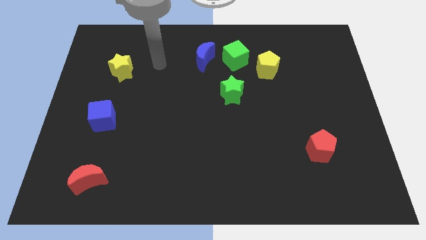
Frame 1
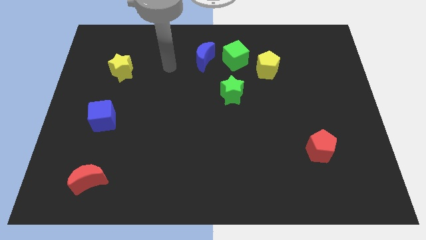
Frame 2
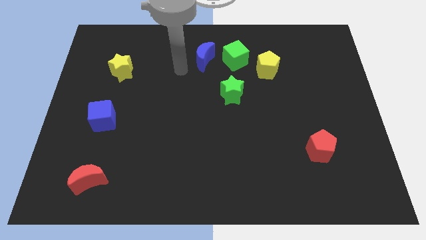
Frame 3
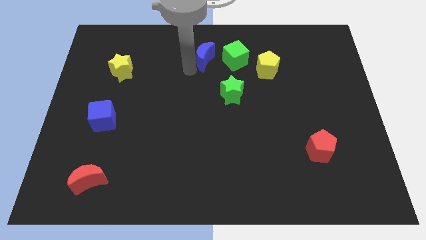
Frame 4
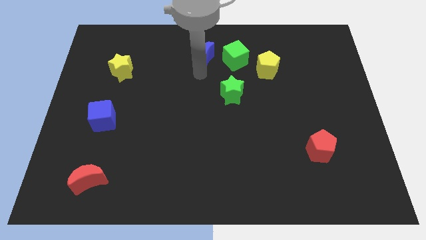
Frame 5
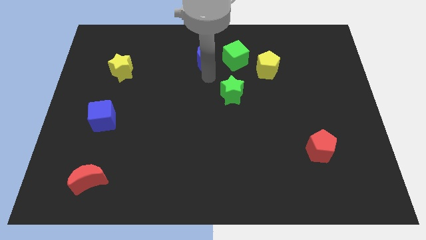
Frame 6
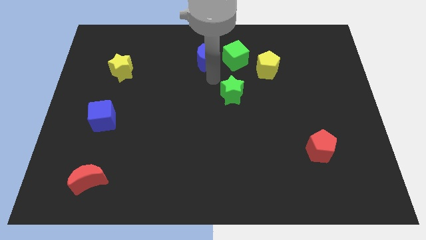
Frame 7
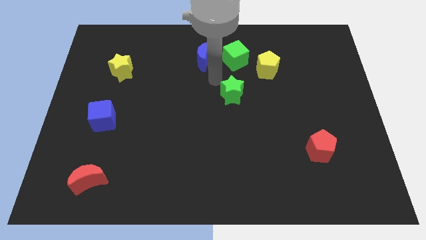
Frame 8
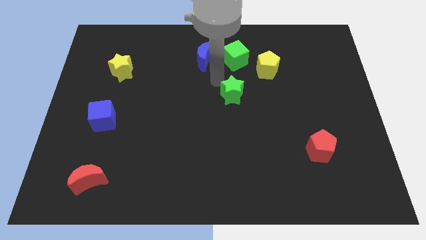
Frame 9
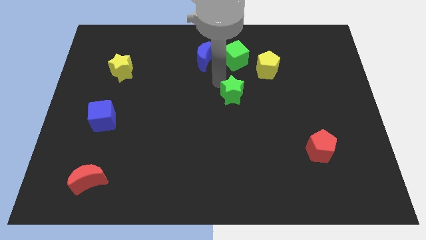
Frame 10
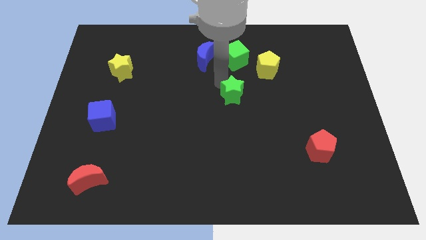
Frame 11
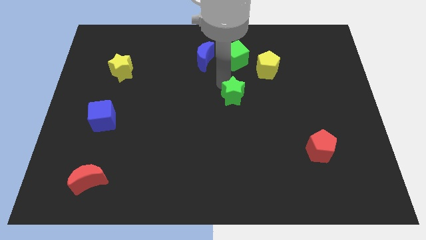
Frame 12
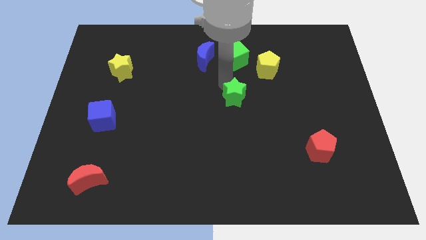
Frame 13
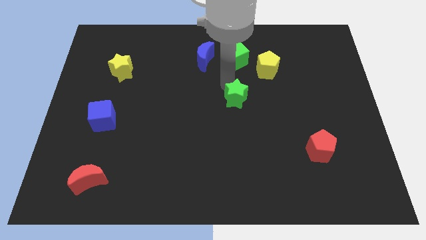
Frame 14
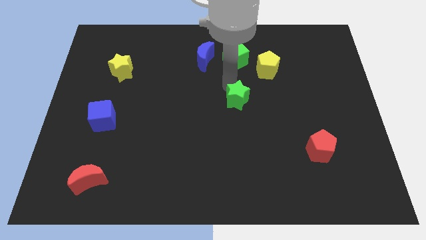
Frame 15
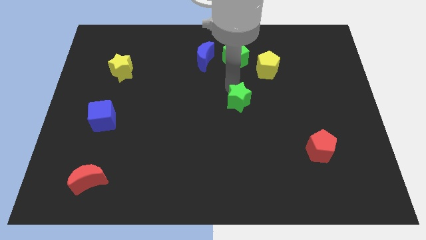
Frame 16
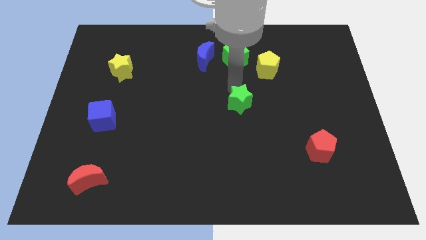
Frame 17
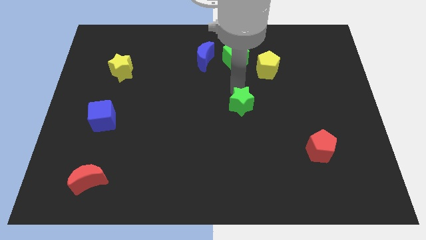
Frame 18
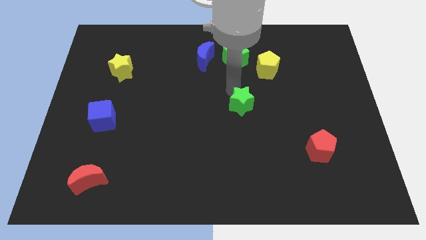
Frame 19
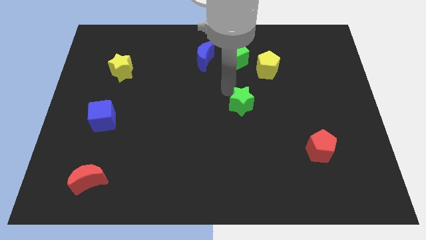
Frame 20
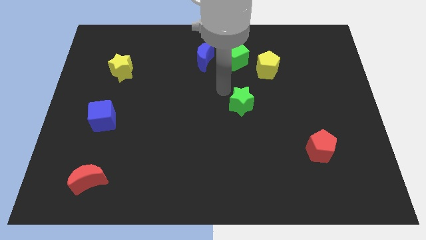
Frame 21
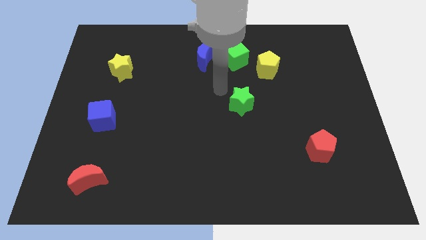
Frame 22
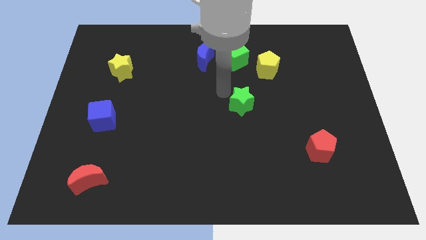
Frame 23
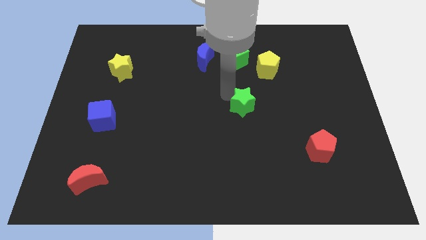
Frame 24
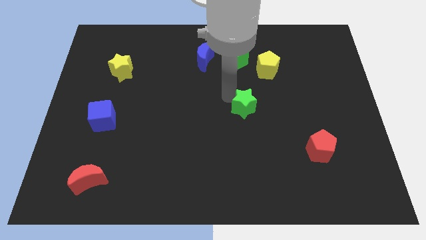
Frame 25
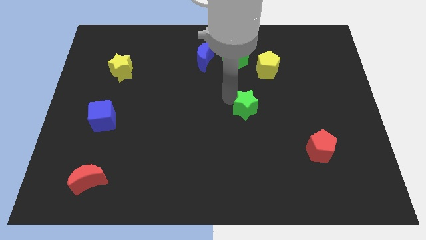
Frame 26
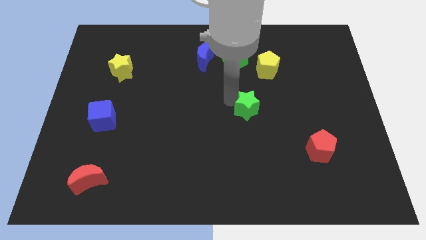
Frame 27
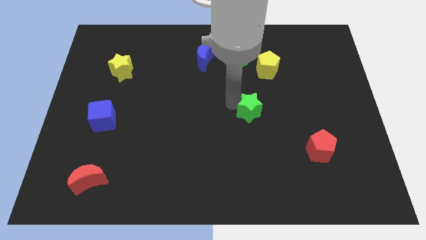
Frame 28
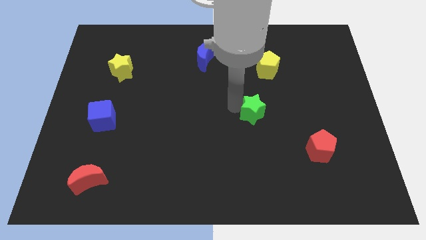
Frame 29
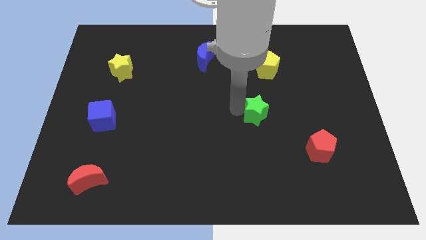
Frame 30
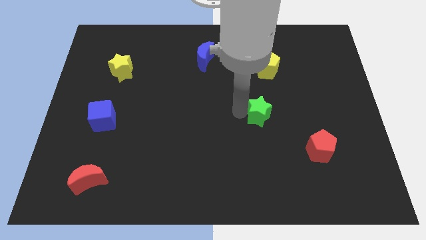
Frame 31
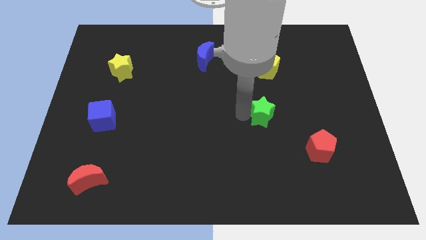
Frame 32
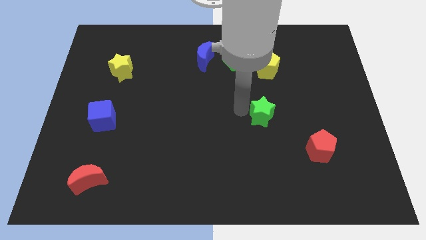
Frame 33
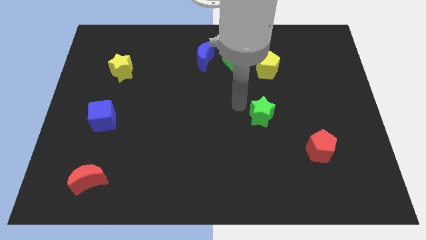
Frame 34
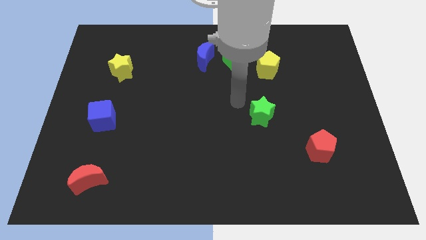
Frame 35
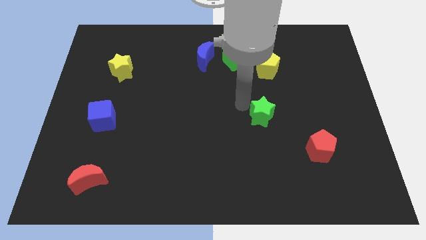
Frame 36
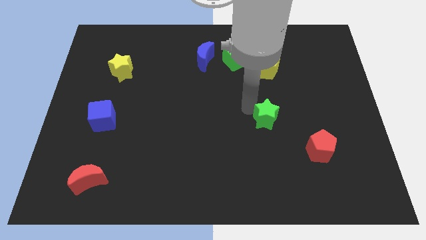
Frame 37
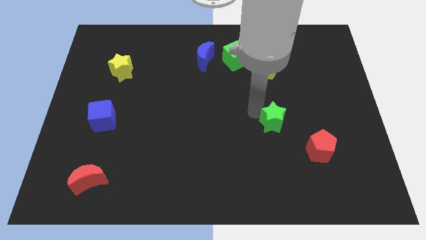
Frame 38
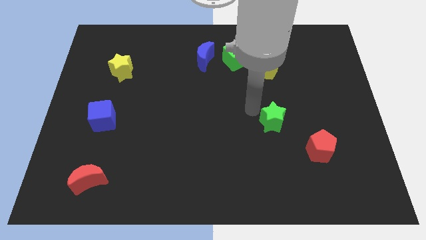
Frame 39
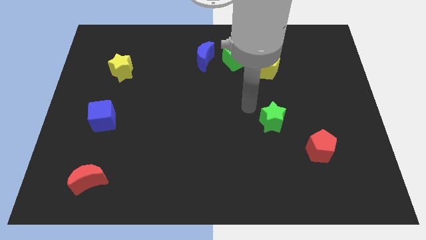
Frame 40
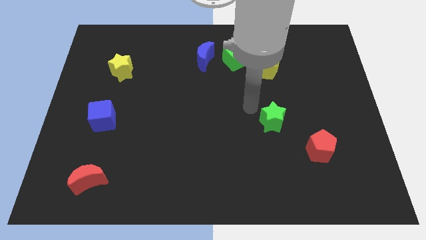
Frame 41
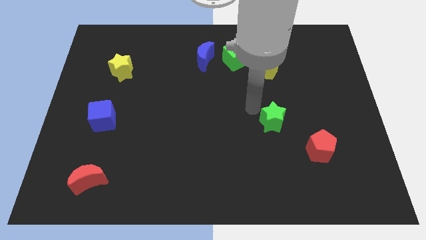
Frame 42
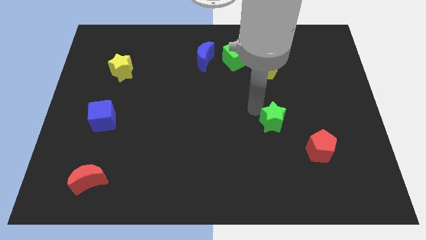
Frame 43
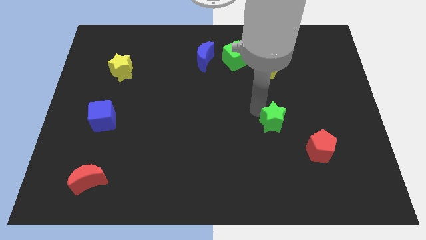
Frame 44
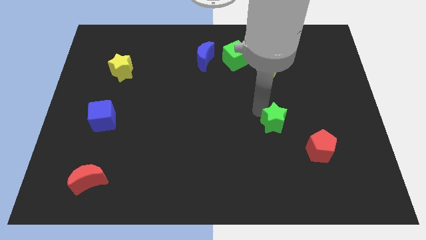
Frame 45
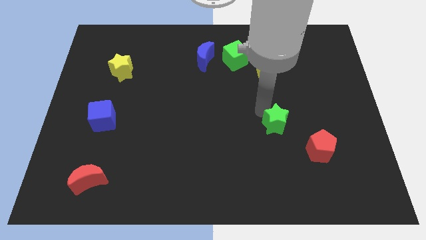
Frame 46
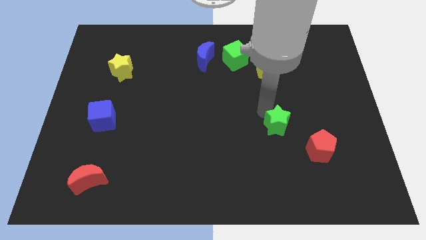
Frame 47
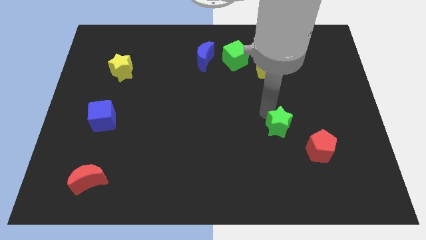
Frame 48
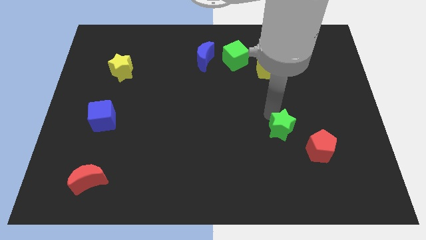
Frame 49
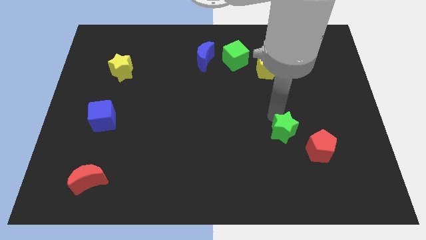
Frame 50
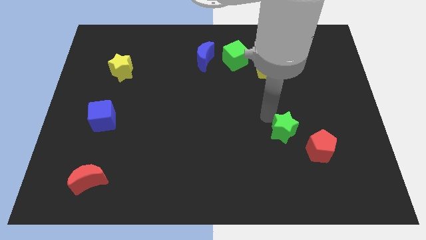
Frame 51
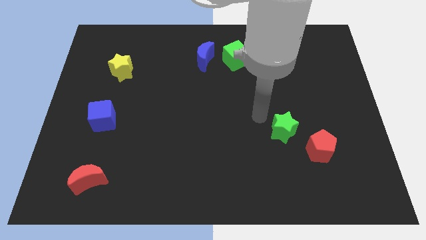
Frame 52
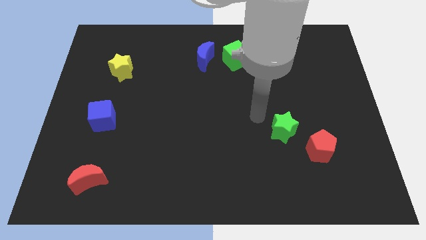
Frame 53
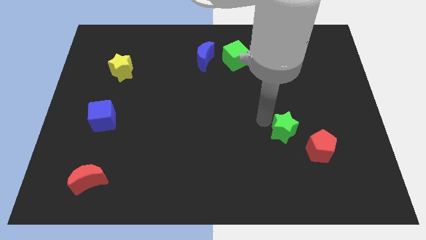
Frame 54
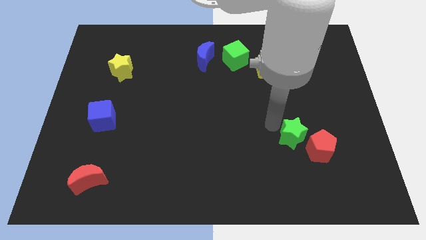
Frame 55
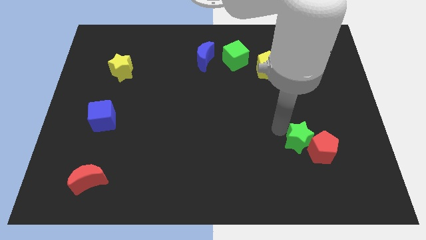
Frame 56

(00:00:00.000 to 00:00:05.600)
move the green star next to the red pentagon

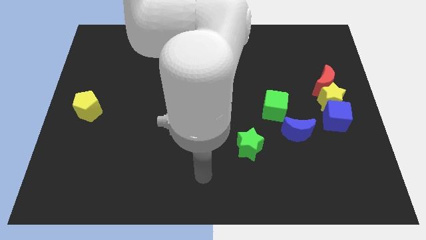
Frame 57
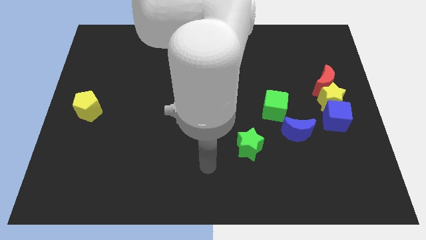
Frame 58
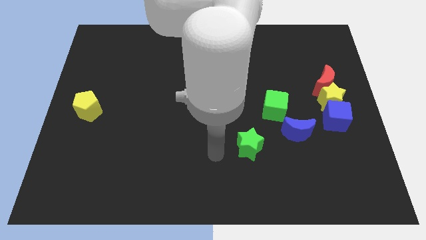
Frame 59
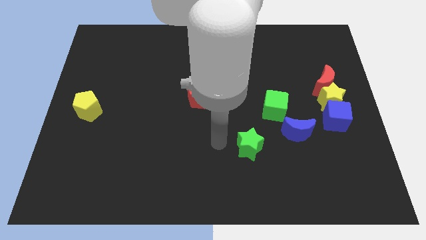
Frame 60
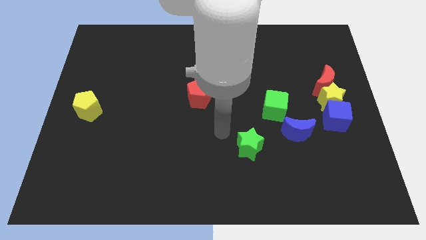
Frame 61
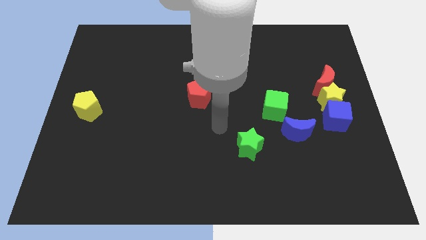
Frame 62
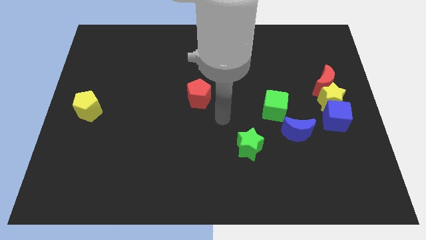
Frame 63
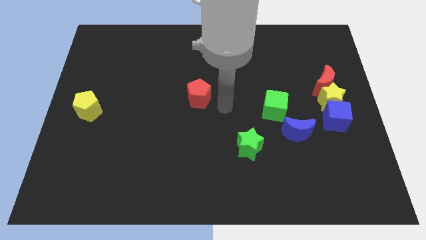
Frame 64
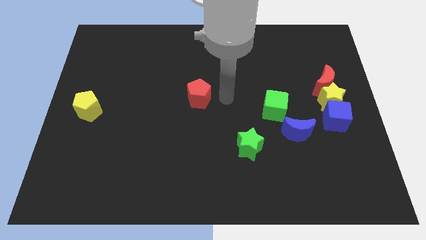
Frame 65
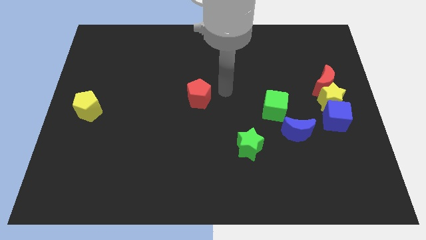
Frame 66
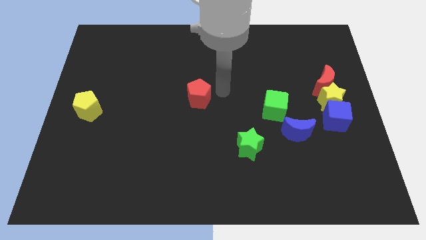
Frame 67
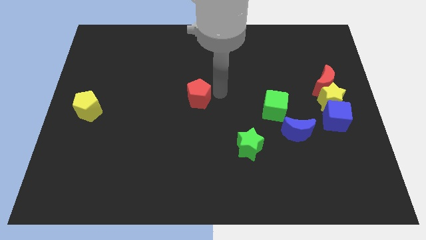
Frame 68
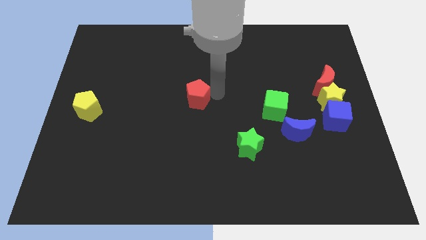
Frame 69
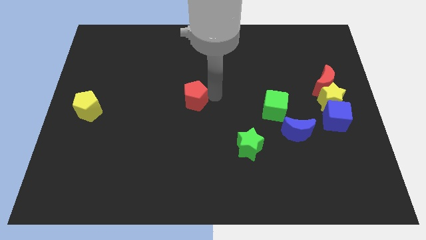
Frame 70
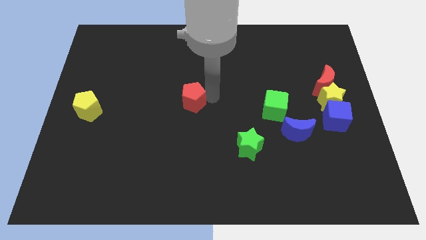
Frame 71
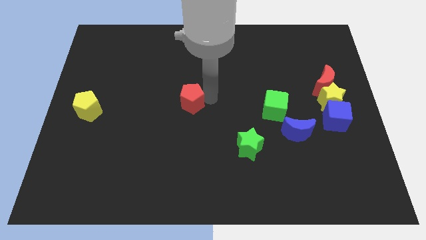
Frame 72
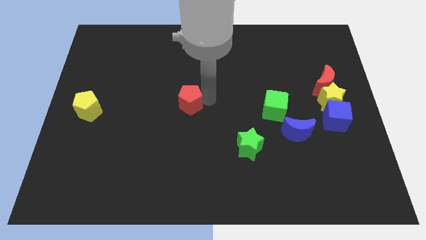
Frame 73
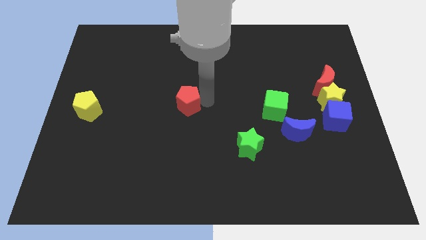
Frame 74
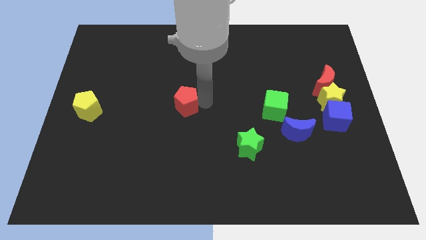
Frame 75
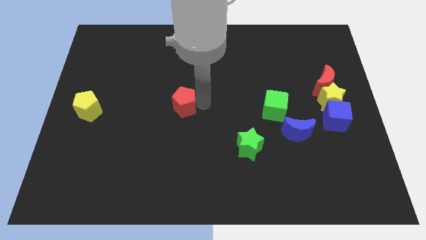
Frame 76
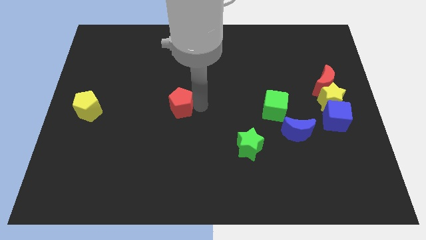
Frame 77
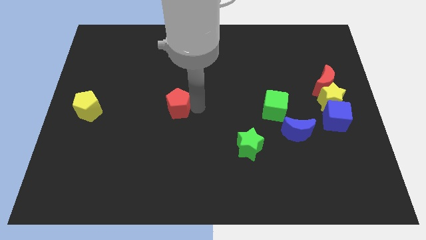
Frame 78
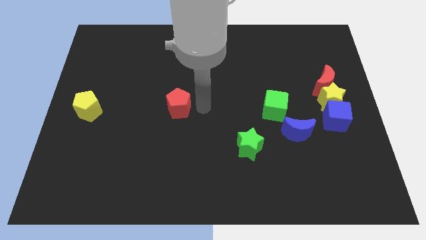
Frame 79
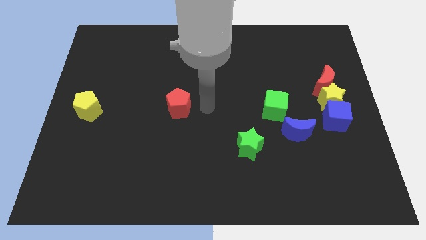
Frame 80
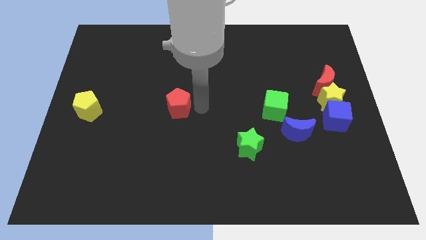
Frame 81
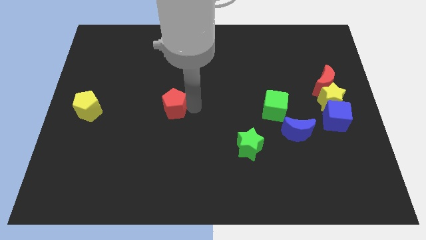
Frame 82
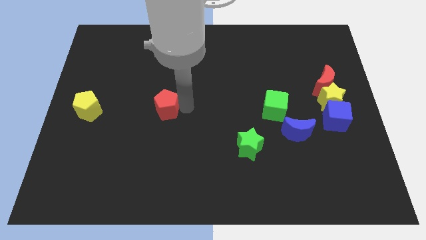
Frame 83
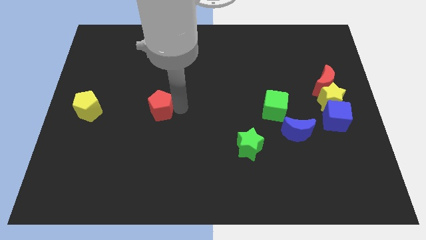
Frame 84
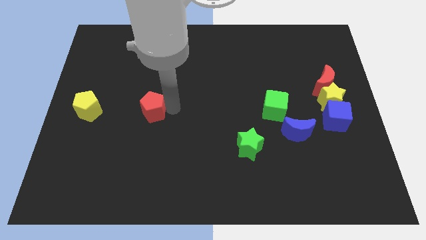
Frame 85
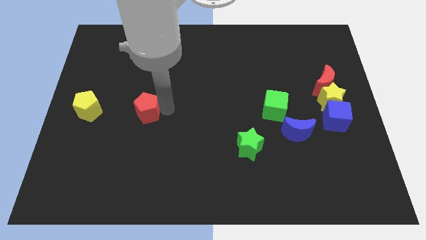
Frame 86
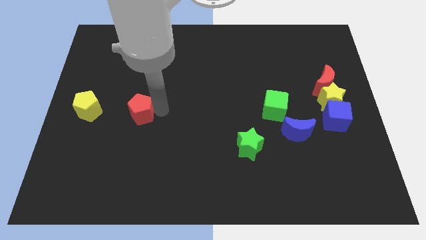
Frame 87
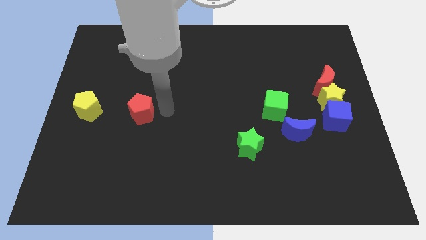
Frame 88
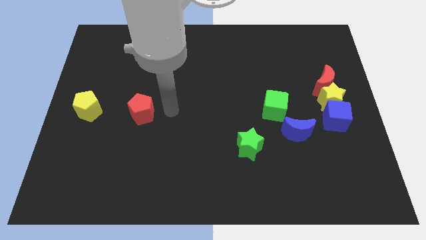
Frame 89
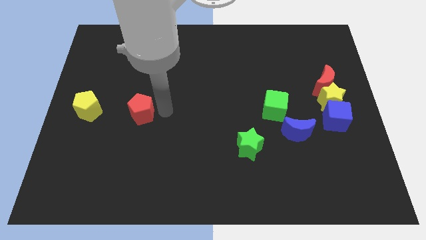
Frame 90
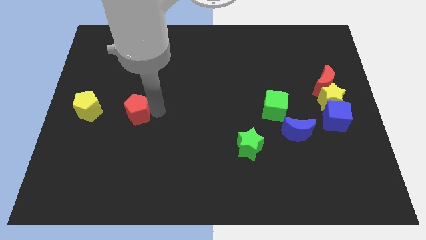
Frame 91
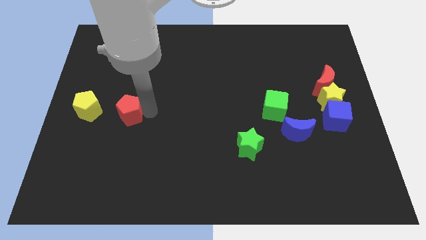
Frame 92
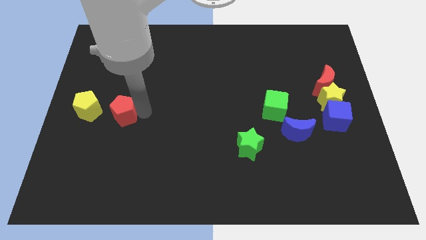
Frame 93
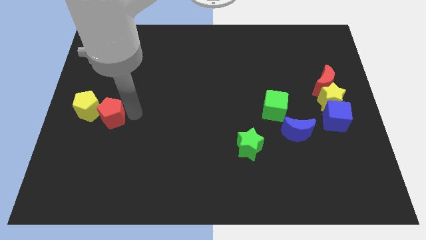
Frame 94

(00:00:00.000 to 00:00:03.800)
slide the red pentagon towards the yellow pentagon
